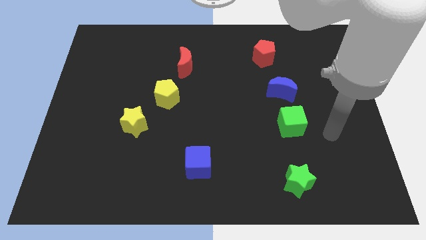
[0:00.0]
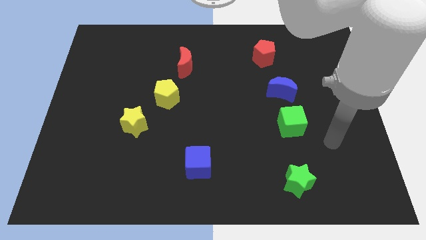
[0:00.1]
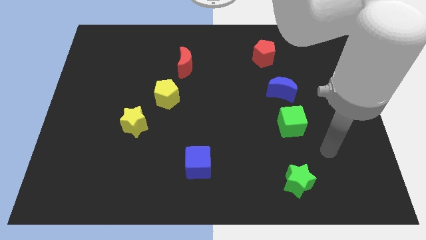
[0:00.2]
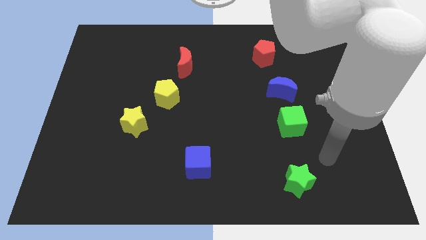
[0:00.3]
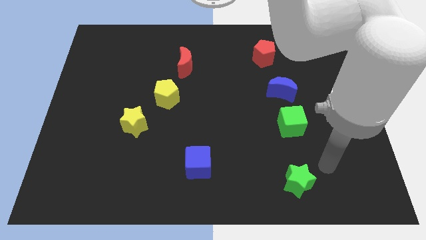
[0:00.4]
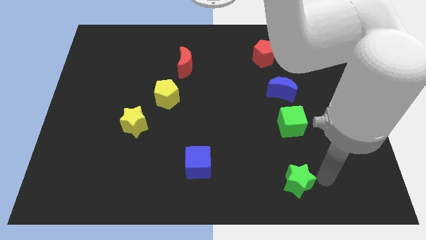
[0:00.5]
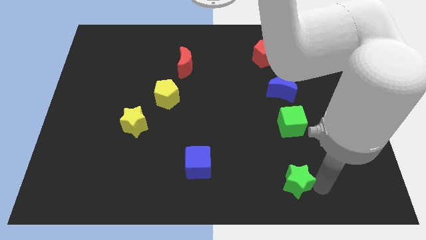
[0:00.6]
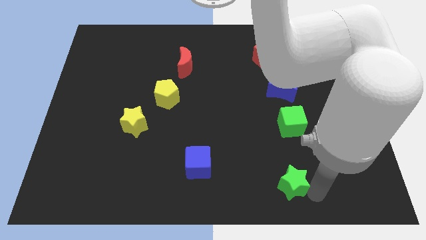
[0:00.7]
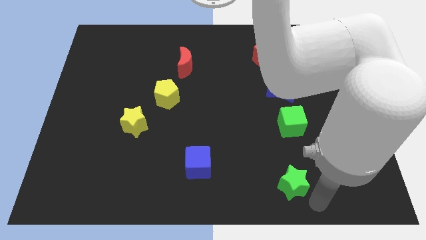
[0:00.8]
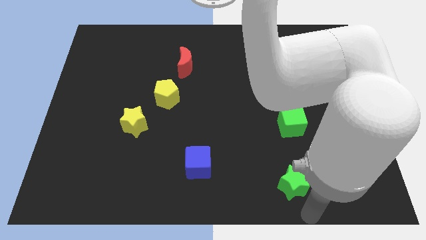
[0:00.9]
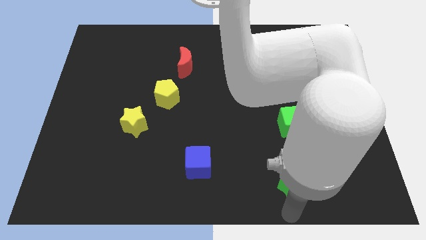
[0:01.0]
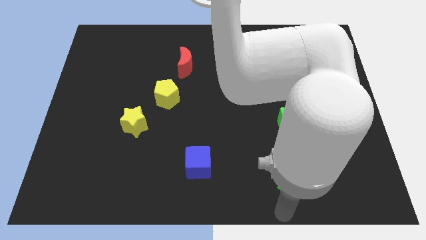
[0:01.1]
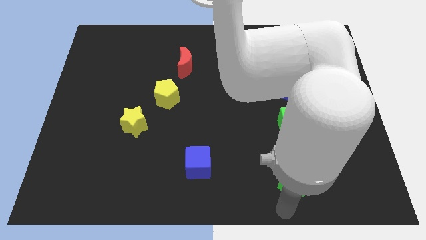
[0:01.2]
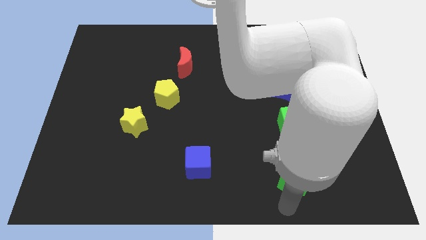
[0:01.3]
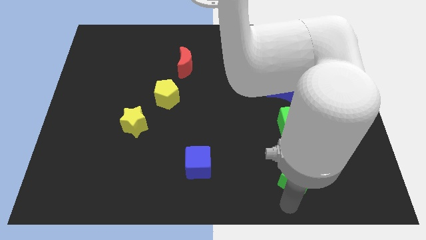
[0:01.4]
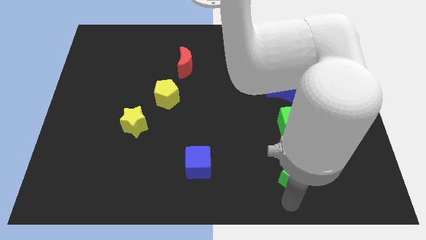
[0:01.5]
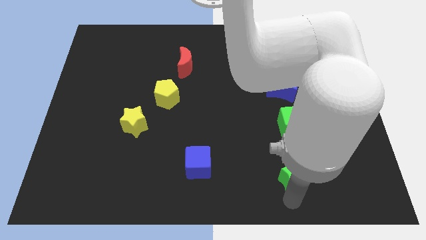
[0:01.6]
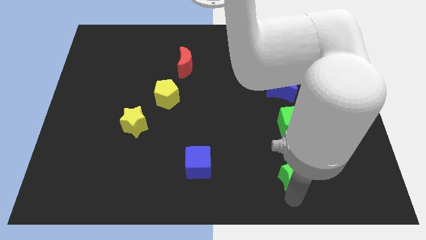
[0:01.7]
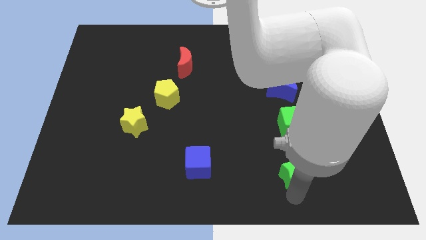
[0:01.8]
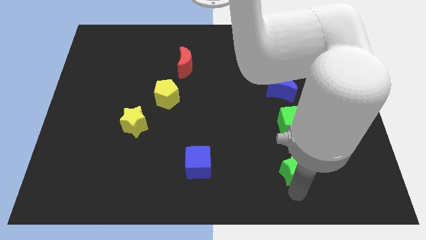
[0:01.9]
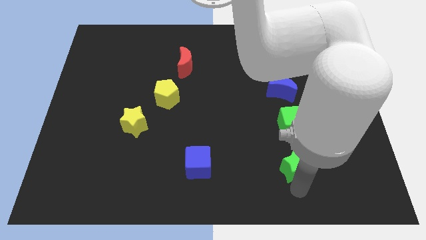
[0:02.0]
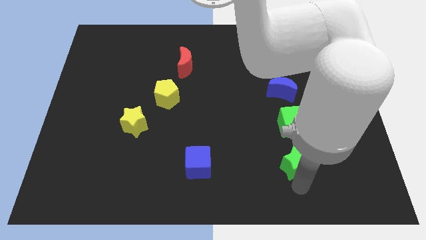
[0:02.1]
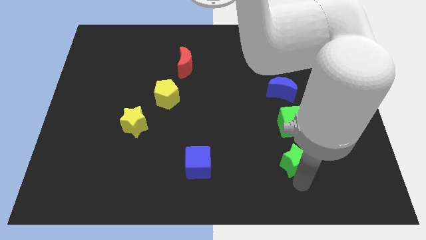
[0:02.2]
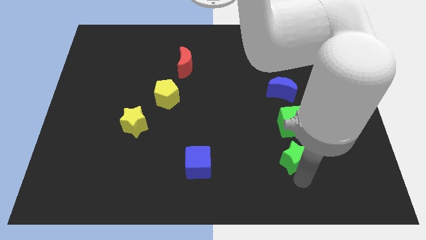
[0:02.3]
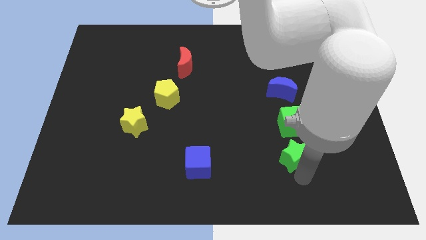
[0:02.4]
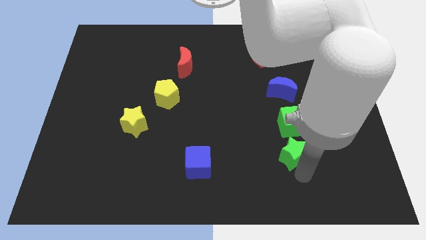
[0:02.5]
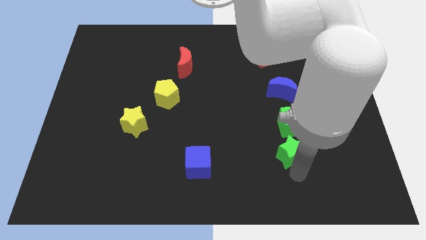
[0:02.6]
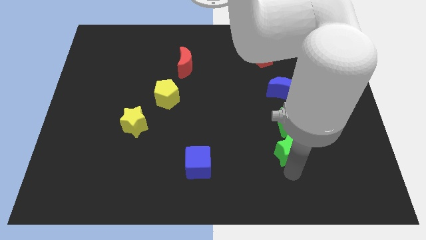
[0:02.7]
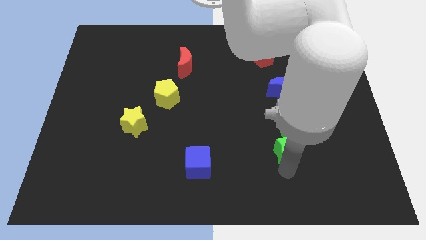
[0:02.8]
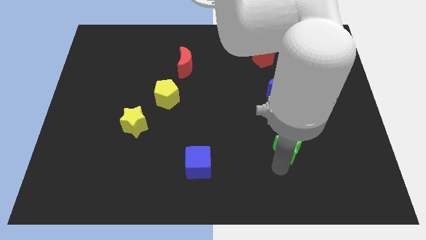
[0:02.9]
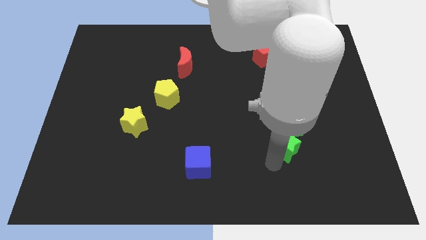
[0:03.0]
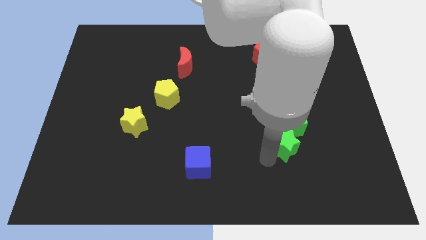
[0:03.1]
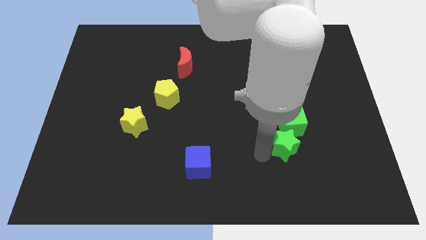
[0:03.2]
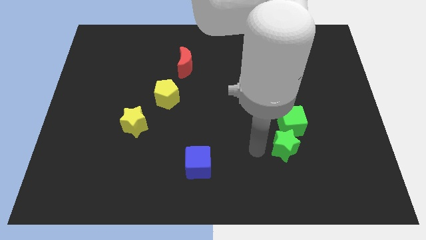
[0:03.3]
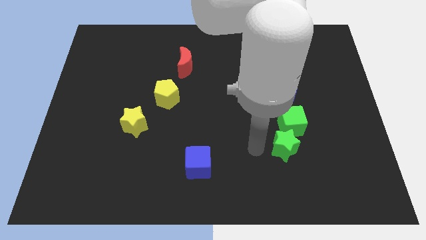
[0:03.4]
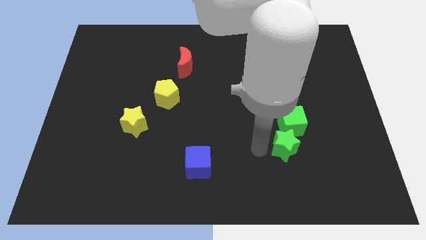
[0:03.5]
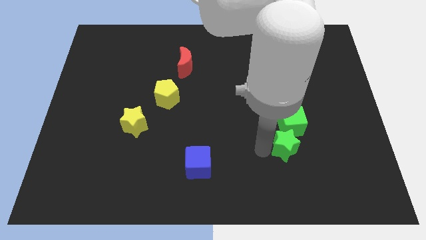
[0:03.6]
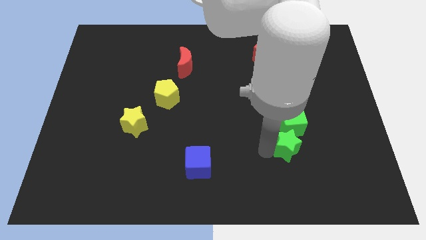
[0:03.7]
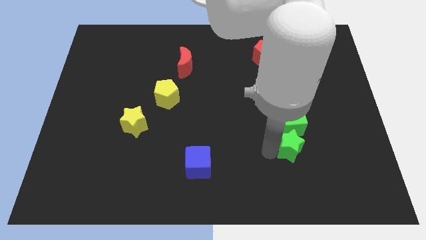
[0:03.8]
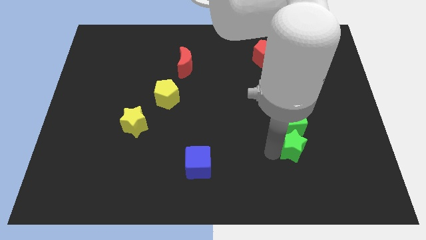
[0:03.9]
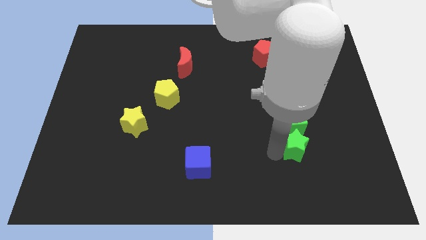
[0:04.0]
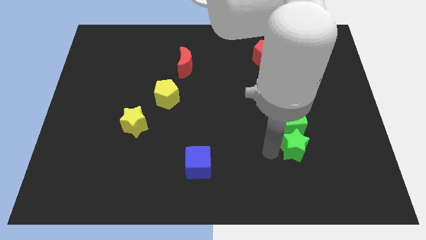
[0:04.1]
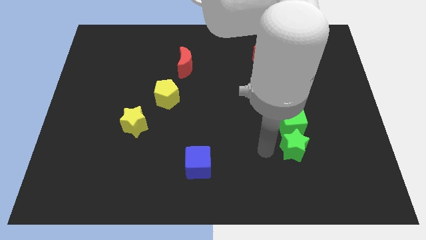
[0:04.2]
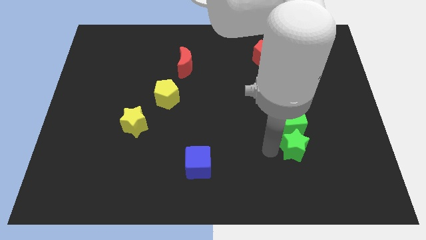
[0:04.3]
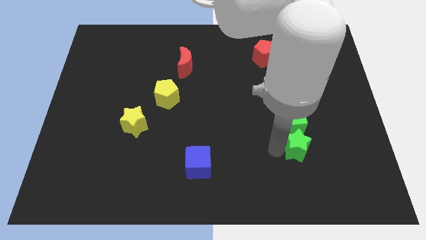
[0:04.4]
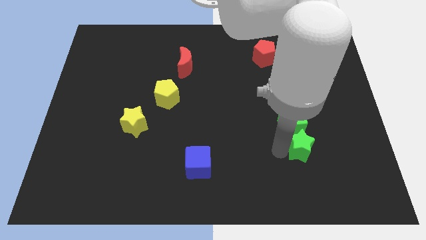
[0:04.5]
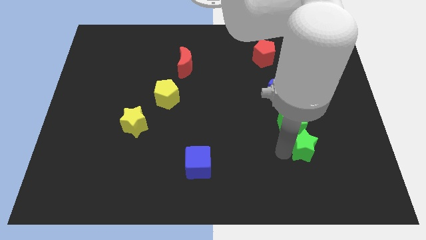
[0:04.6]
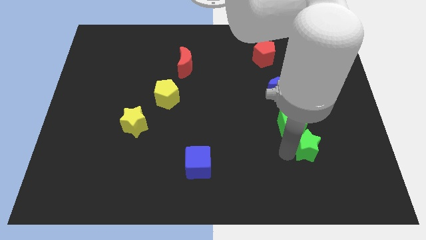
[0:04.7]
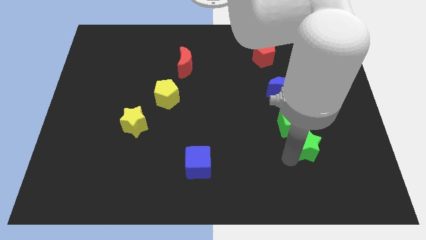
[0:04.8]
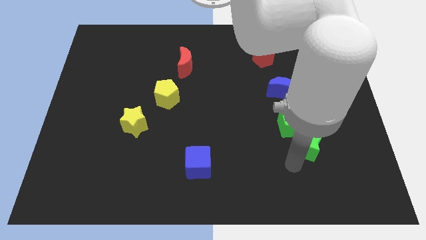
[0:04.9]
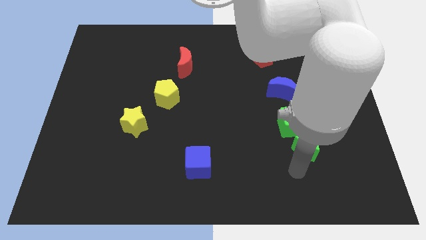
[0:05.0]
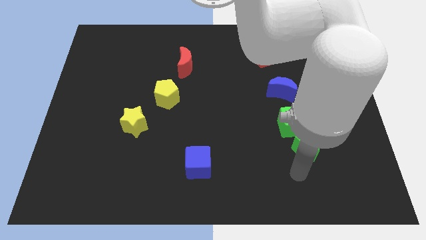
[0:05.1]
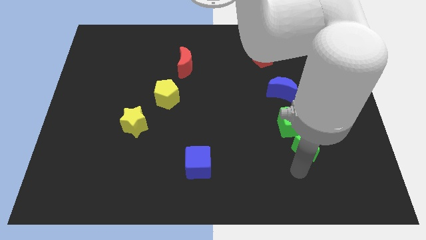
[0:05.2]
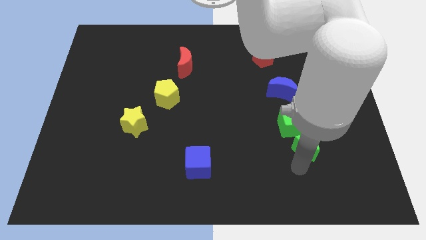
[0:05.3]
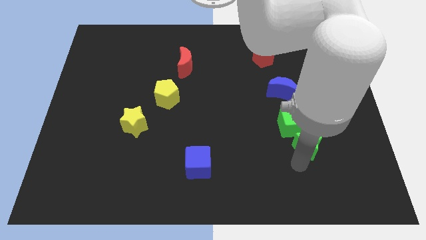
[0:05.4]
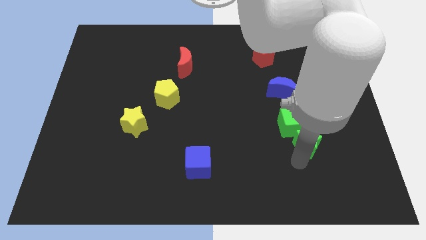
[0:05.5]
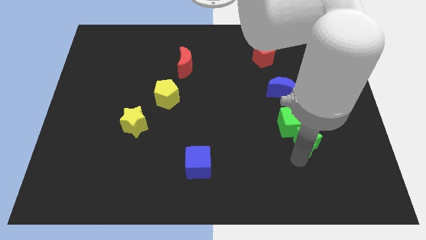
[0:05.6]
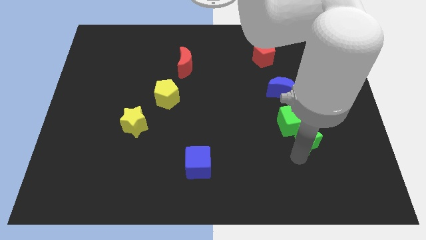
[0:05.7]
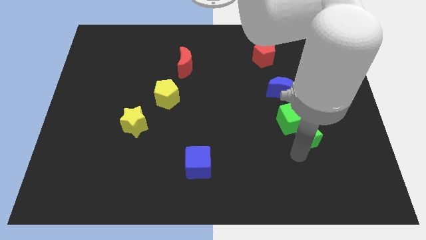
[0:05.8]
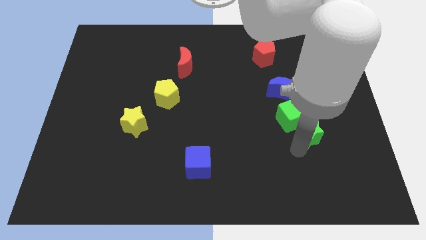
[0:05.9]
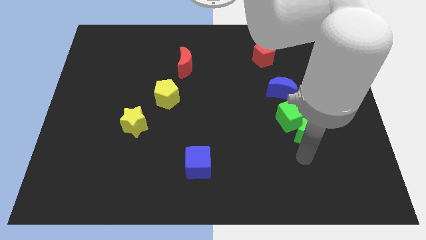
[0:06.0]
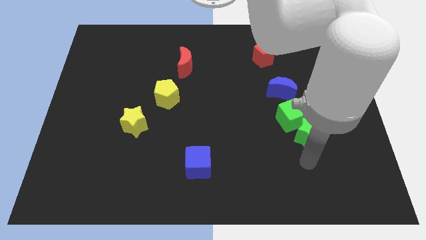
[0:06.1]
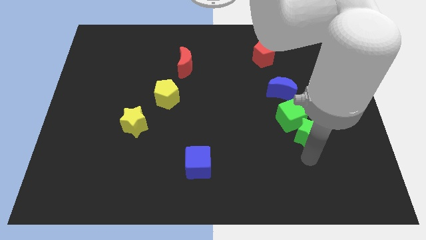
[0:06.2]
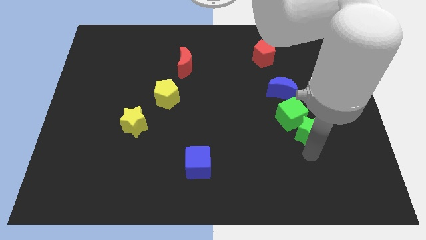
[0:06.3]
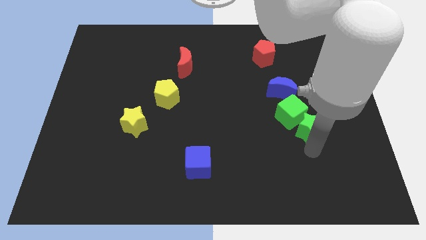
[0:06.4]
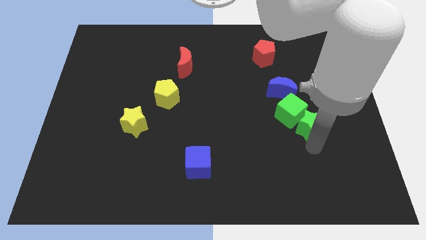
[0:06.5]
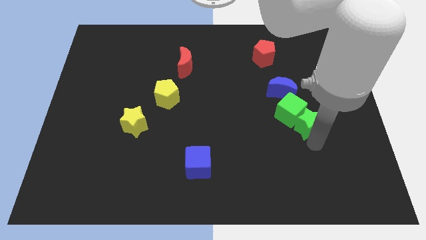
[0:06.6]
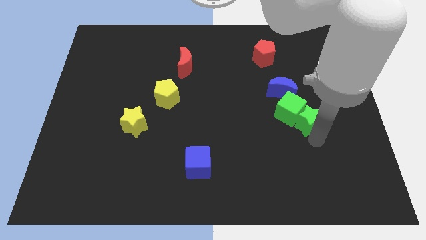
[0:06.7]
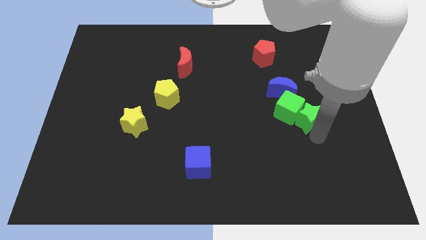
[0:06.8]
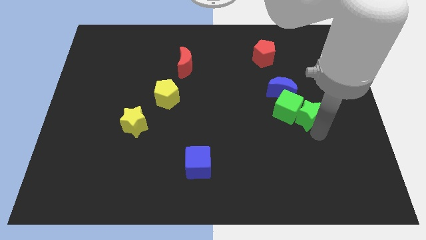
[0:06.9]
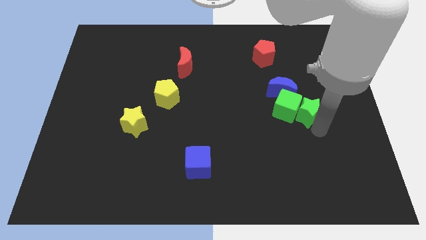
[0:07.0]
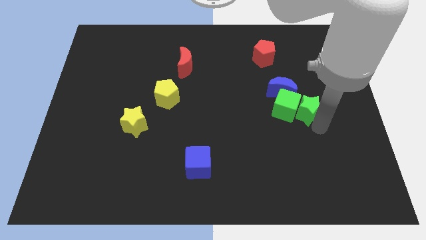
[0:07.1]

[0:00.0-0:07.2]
slide the green star diagonally up and to the right of the green cube
